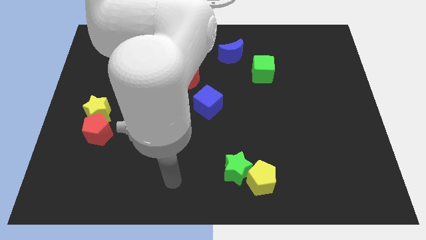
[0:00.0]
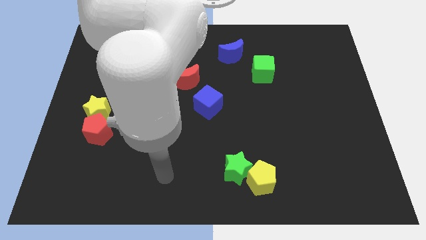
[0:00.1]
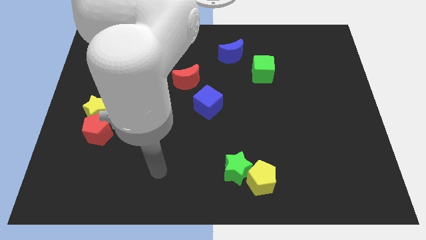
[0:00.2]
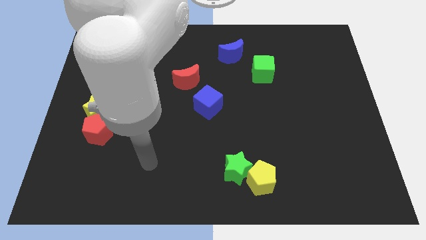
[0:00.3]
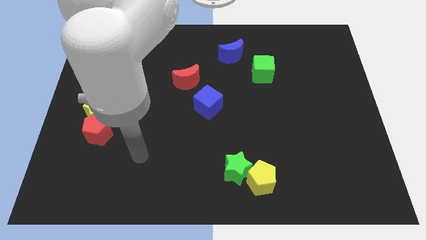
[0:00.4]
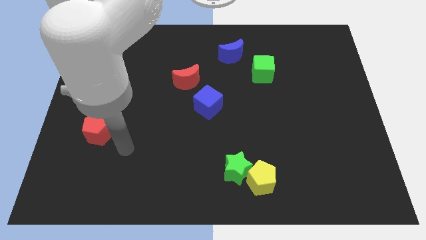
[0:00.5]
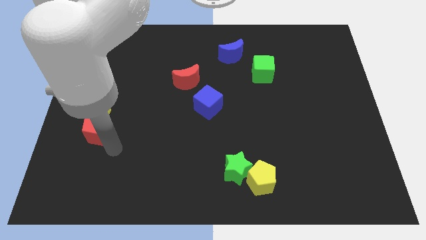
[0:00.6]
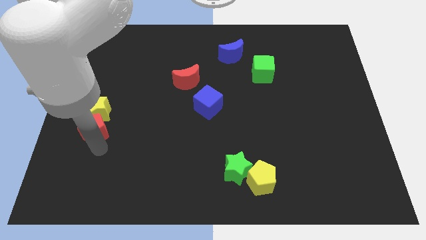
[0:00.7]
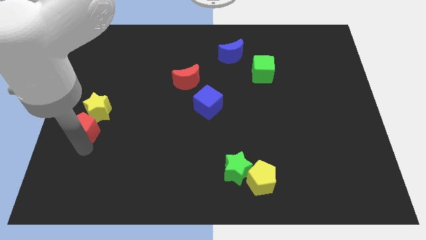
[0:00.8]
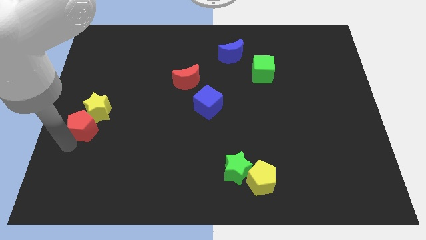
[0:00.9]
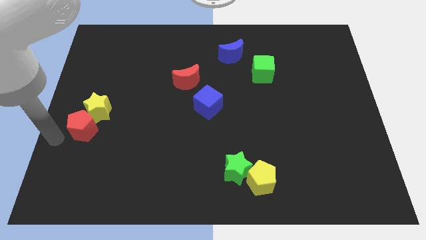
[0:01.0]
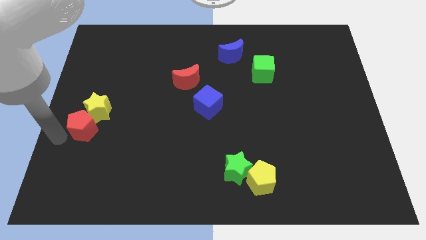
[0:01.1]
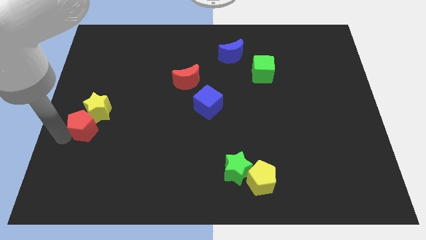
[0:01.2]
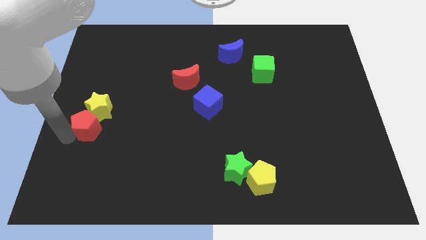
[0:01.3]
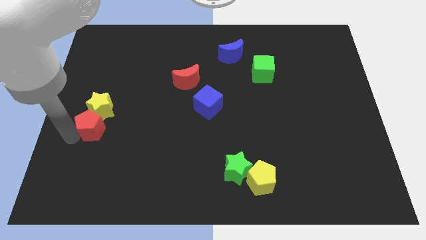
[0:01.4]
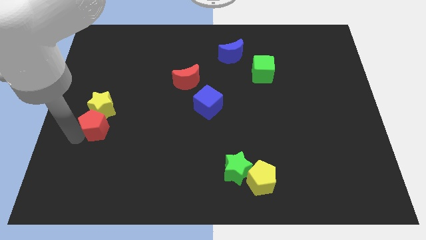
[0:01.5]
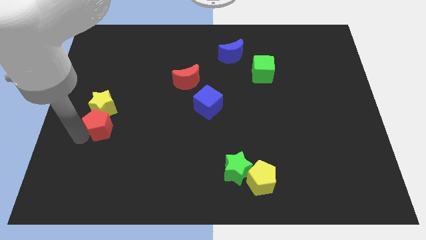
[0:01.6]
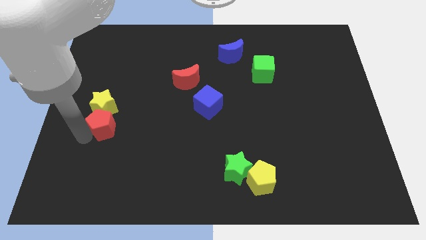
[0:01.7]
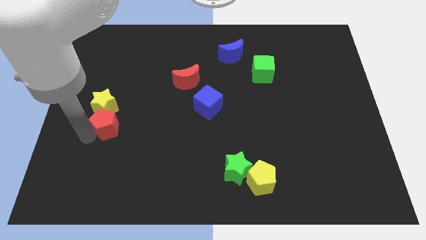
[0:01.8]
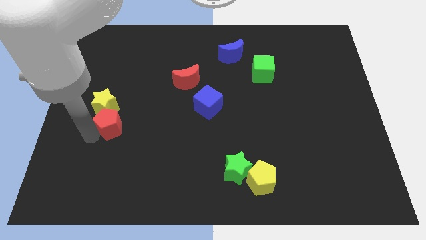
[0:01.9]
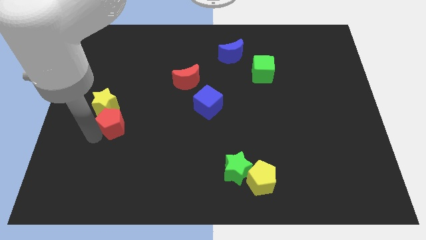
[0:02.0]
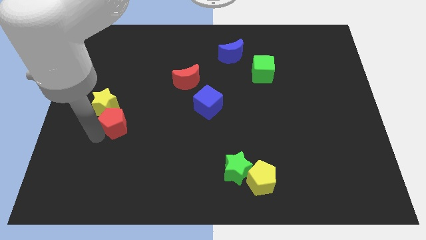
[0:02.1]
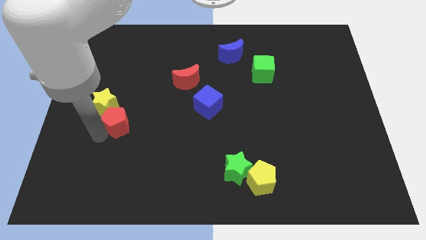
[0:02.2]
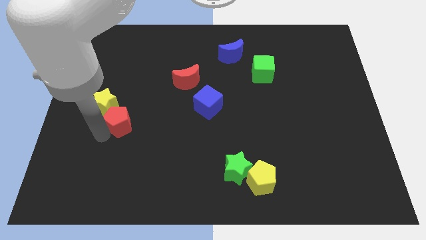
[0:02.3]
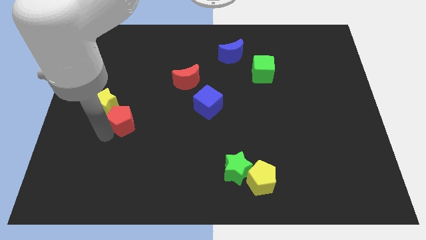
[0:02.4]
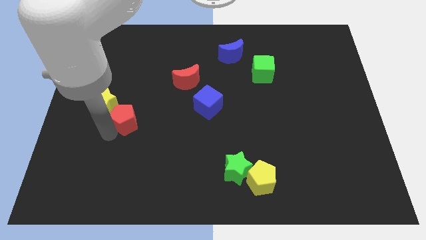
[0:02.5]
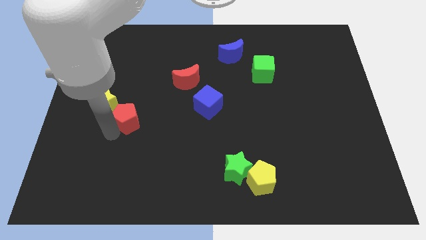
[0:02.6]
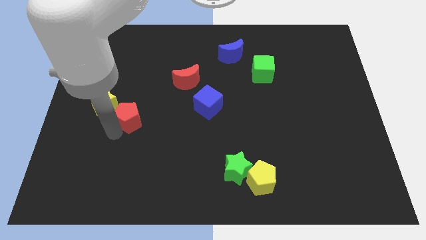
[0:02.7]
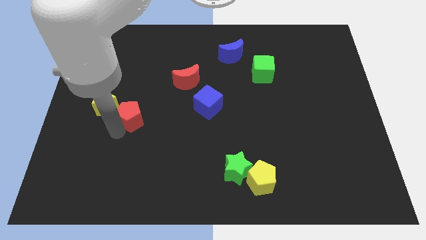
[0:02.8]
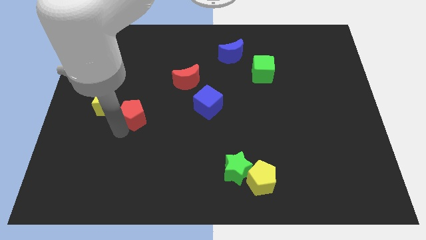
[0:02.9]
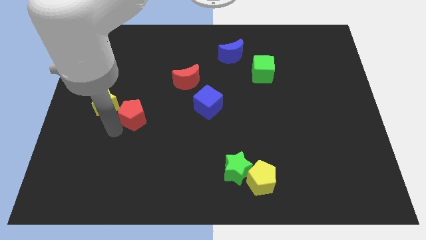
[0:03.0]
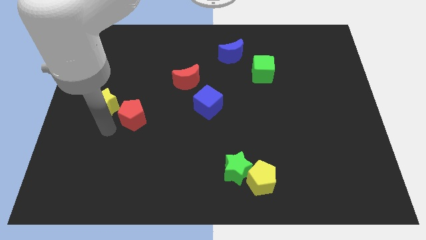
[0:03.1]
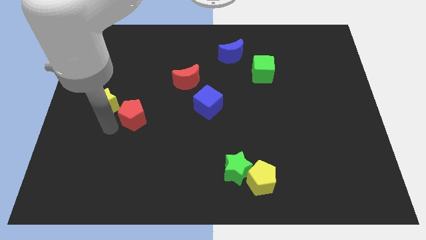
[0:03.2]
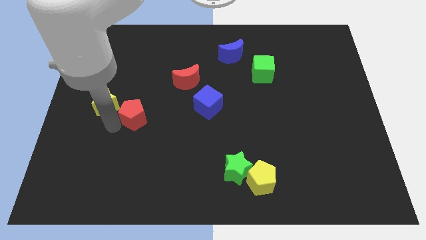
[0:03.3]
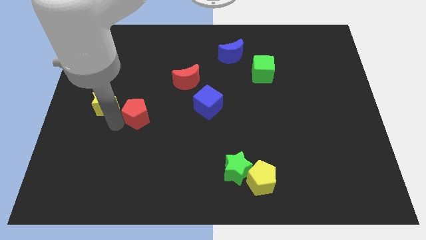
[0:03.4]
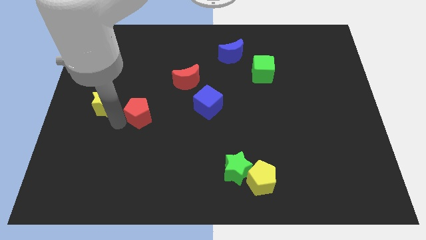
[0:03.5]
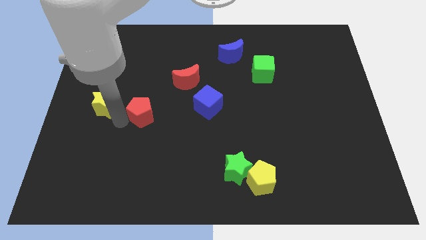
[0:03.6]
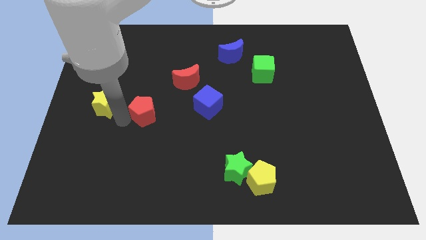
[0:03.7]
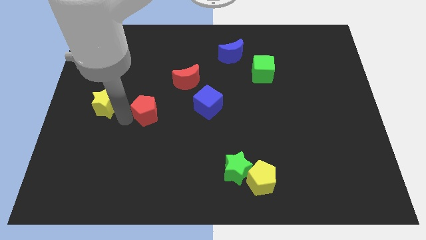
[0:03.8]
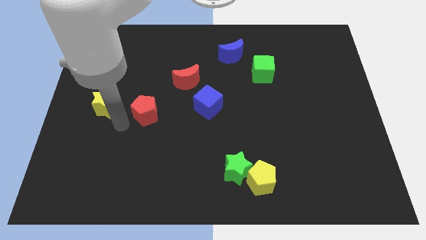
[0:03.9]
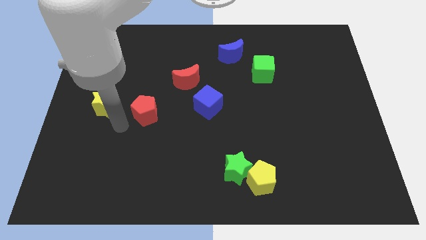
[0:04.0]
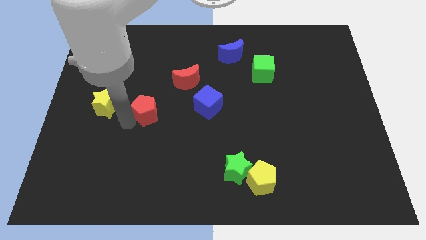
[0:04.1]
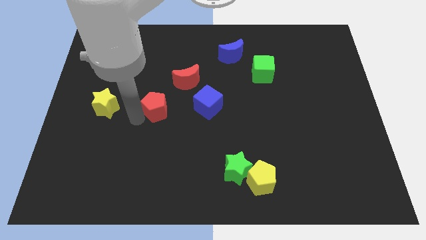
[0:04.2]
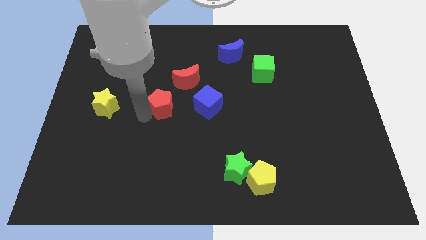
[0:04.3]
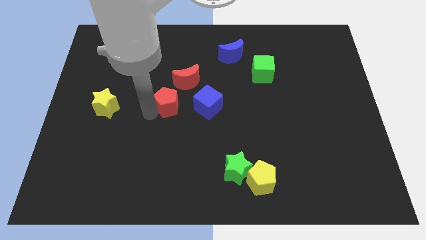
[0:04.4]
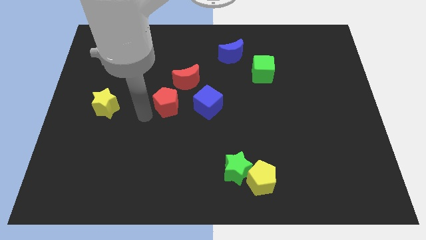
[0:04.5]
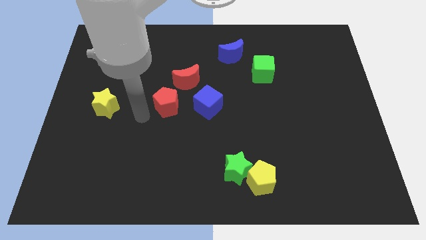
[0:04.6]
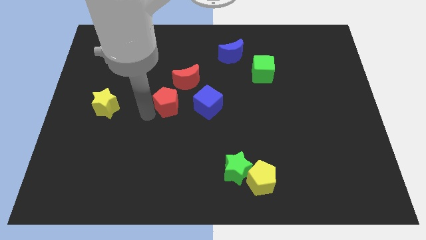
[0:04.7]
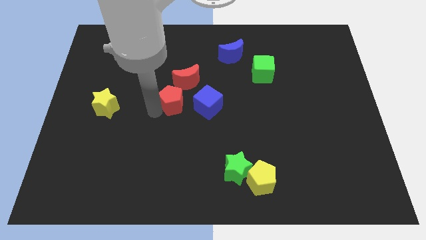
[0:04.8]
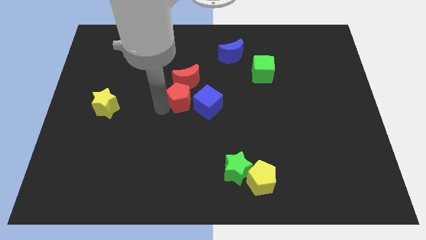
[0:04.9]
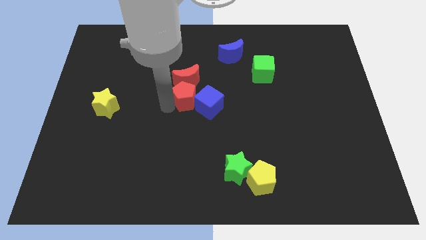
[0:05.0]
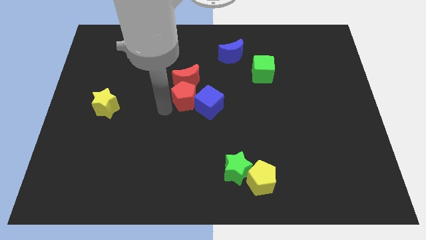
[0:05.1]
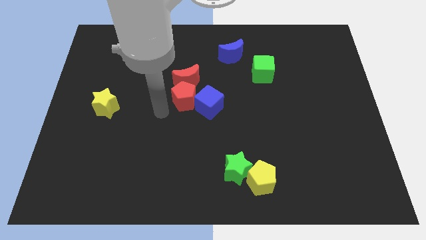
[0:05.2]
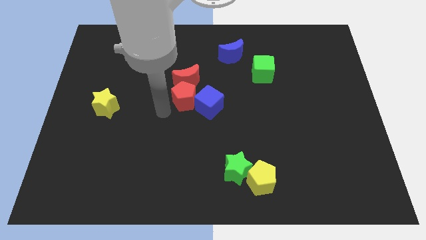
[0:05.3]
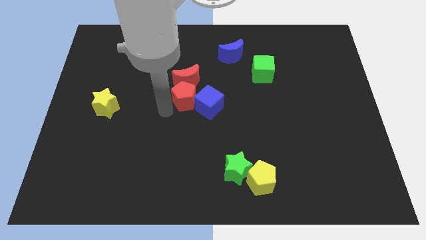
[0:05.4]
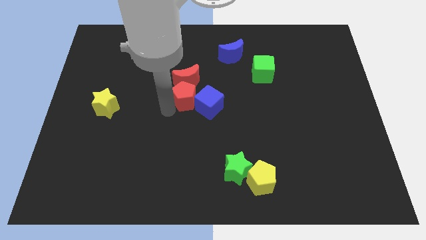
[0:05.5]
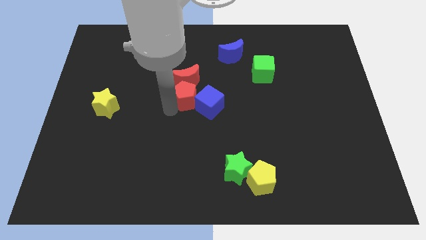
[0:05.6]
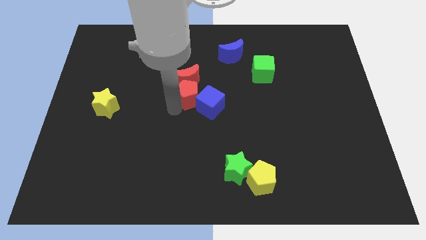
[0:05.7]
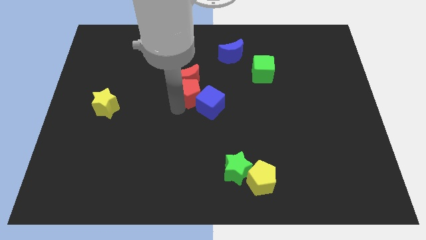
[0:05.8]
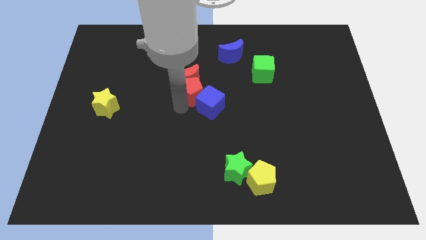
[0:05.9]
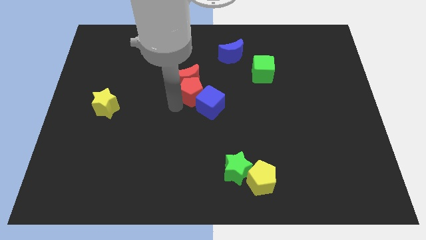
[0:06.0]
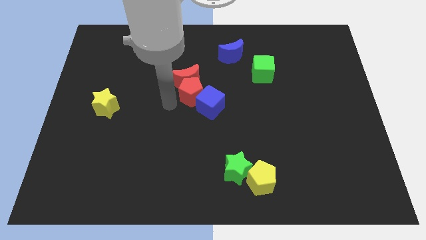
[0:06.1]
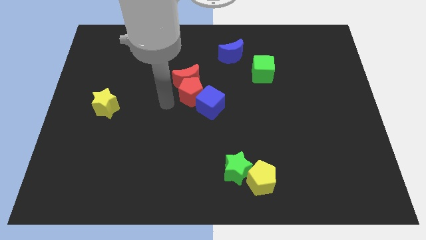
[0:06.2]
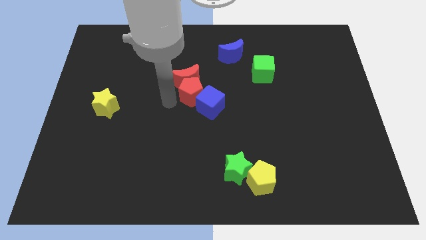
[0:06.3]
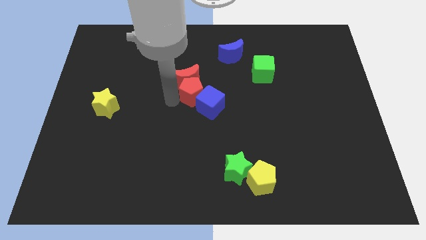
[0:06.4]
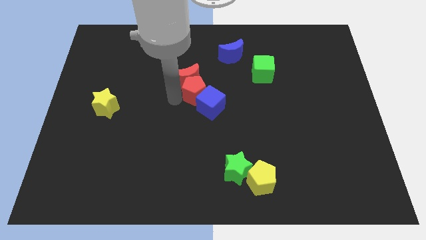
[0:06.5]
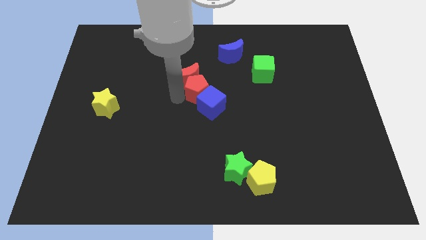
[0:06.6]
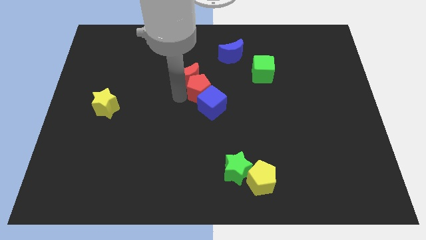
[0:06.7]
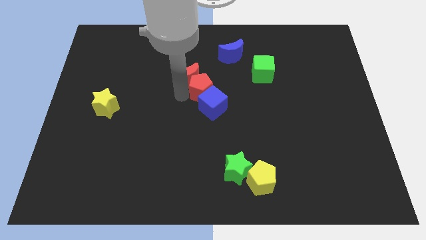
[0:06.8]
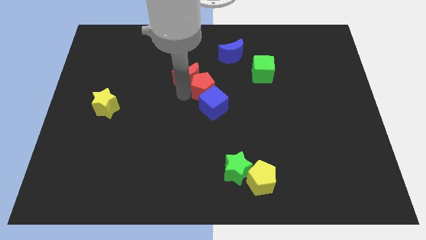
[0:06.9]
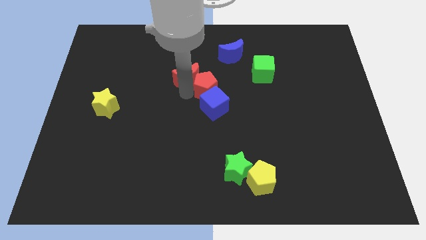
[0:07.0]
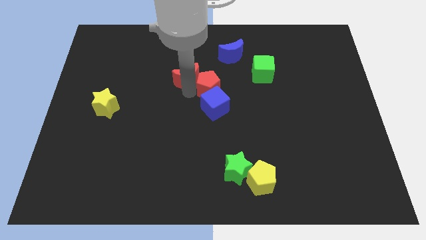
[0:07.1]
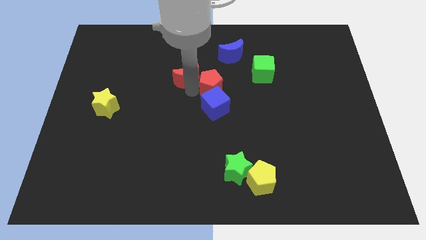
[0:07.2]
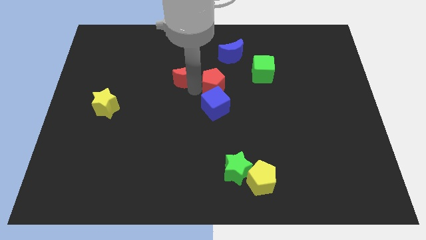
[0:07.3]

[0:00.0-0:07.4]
put the red pentagon to the bottom side of the blue moon

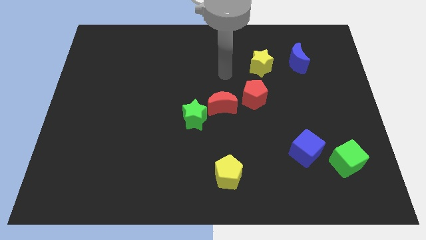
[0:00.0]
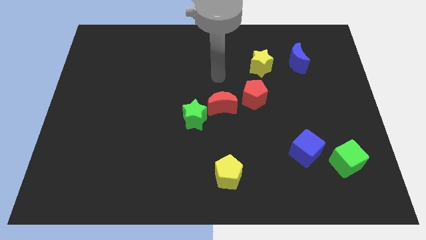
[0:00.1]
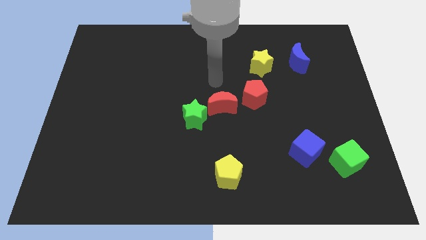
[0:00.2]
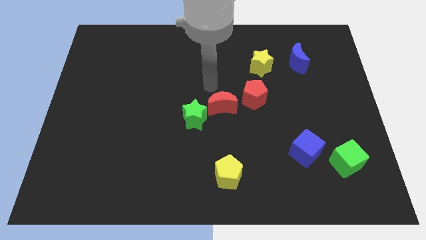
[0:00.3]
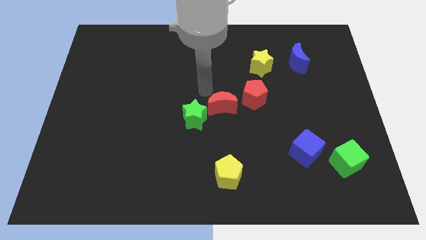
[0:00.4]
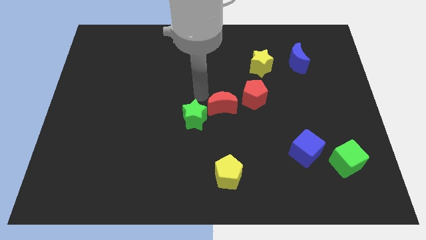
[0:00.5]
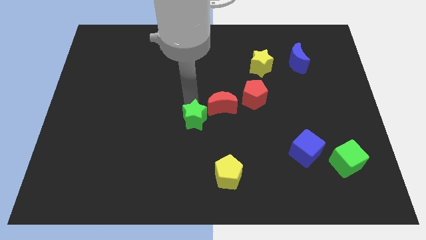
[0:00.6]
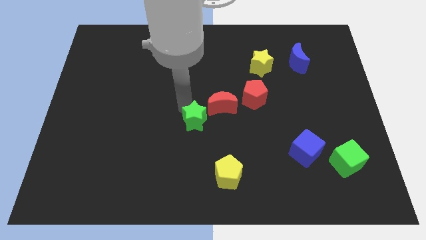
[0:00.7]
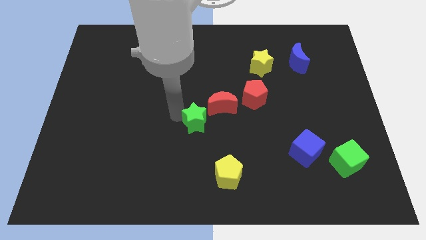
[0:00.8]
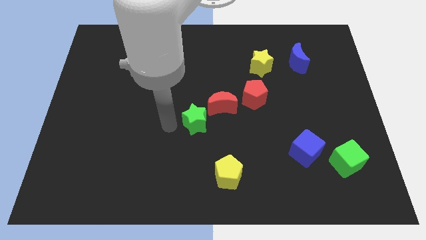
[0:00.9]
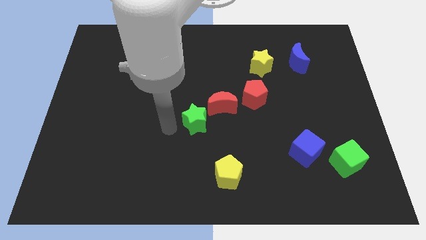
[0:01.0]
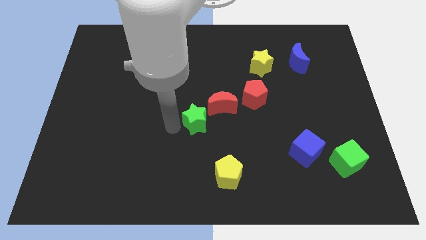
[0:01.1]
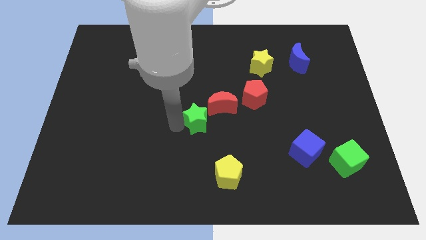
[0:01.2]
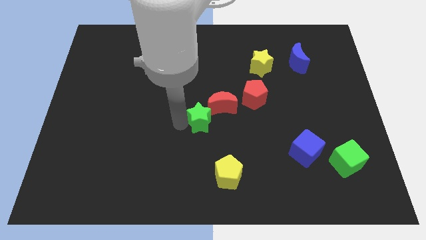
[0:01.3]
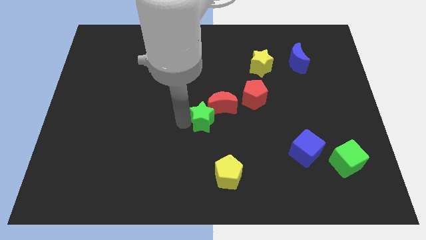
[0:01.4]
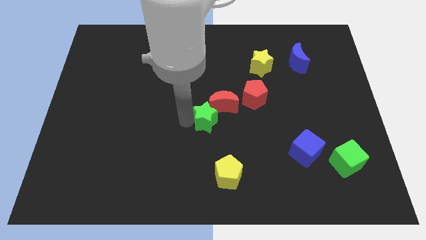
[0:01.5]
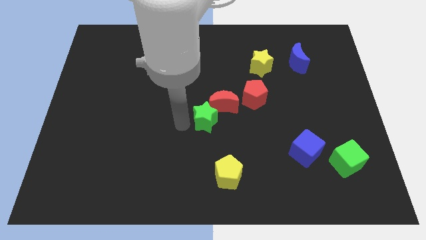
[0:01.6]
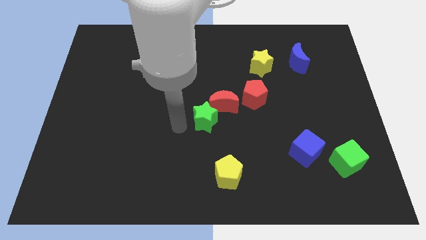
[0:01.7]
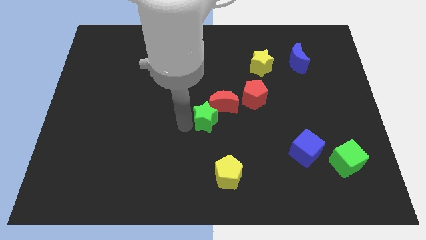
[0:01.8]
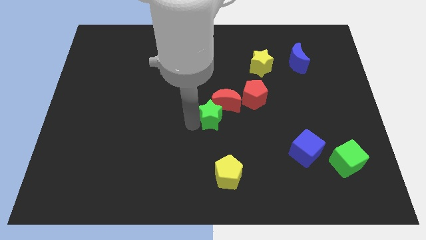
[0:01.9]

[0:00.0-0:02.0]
put the green star diagonally down and to the left of the red pentagon
